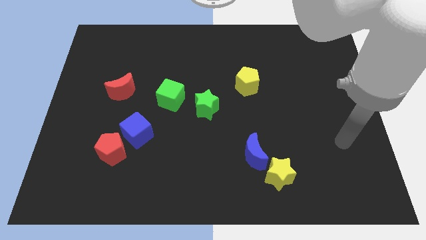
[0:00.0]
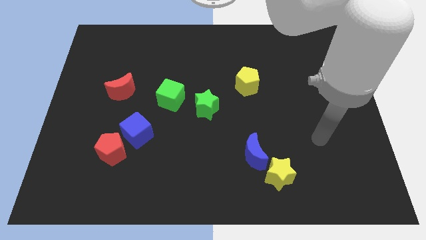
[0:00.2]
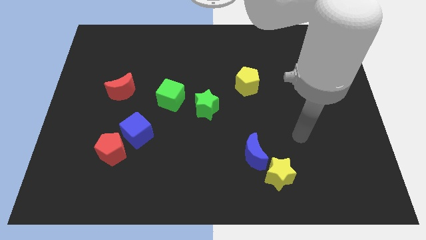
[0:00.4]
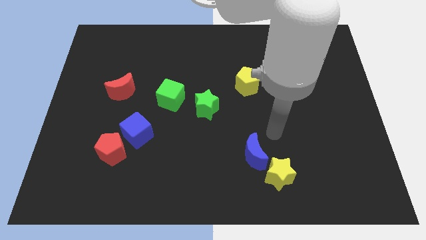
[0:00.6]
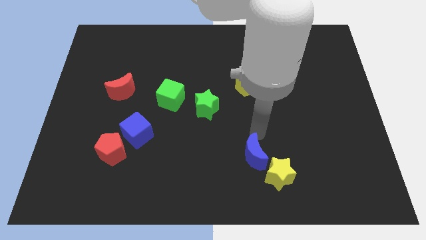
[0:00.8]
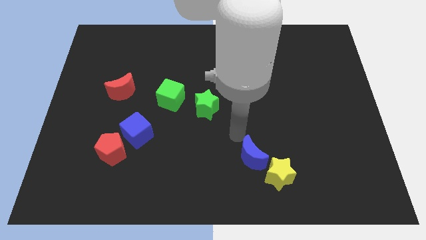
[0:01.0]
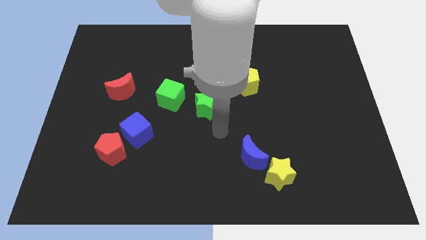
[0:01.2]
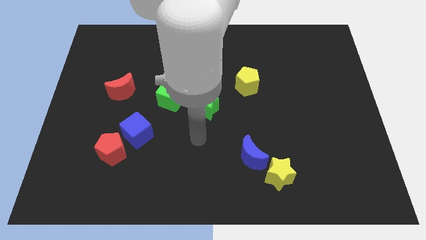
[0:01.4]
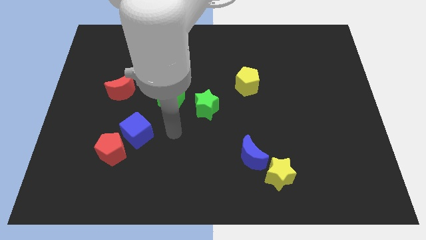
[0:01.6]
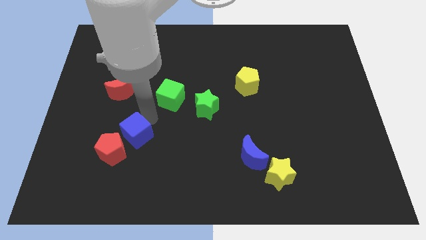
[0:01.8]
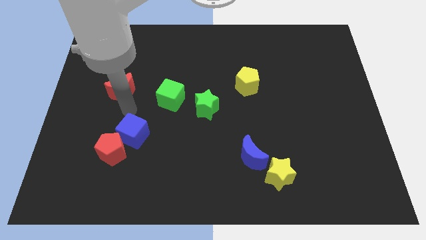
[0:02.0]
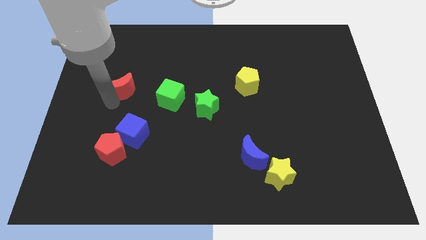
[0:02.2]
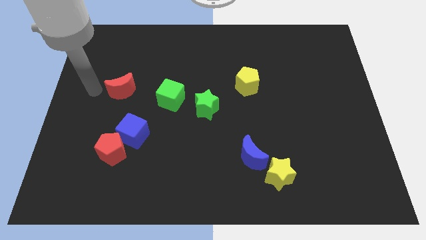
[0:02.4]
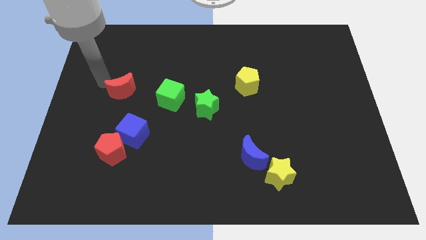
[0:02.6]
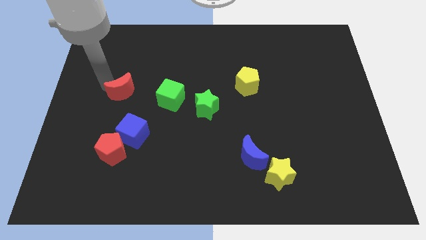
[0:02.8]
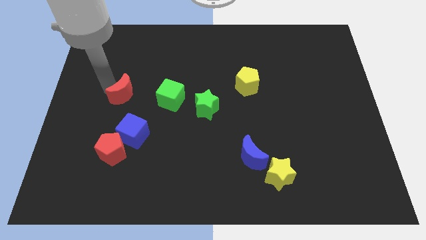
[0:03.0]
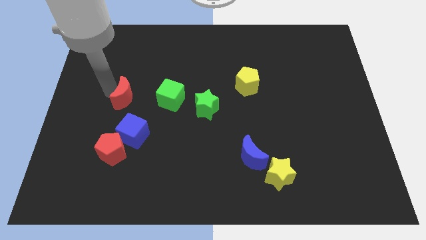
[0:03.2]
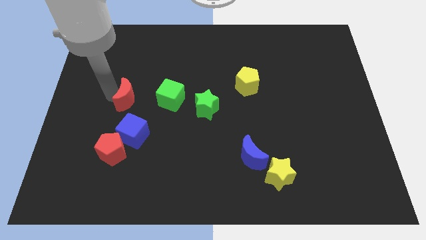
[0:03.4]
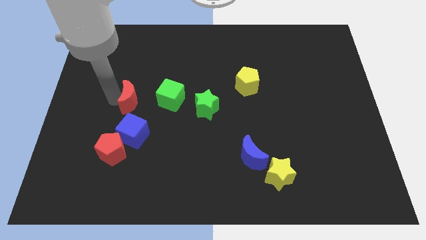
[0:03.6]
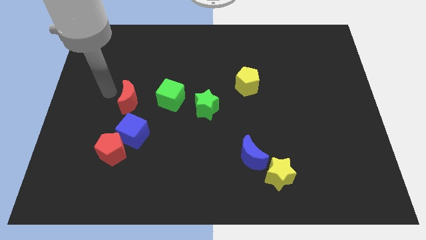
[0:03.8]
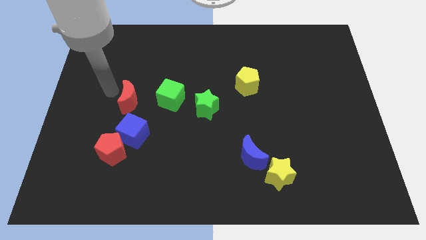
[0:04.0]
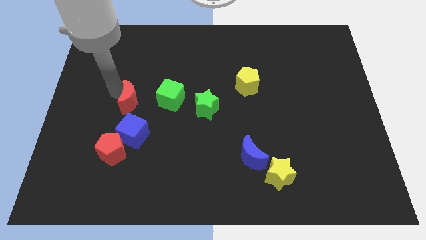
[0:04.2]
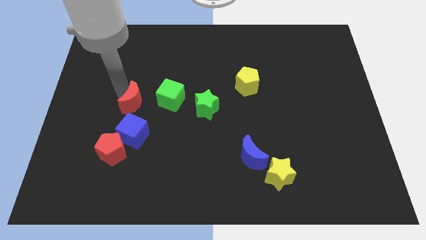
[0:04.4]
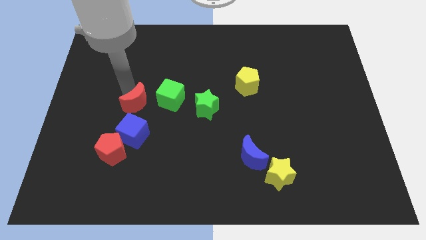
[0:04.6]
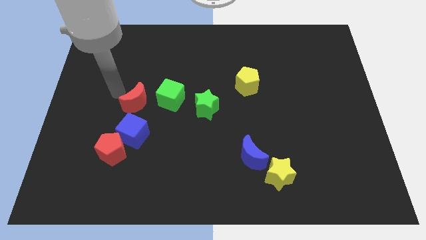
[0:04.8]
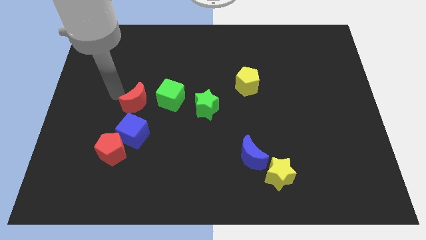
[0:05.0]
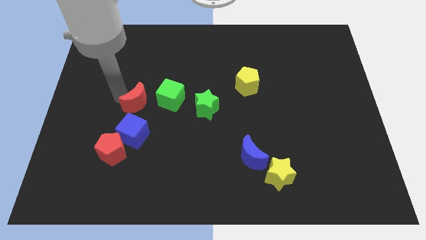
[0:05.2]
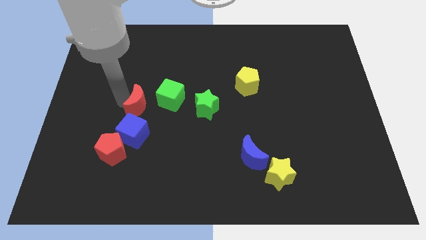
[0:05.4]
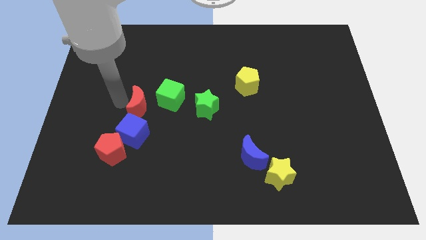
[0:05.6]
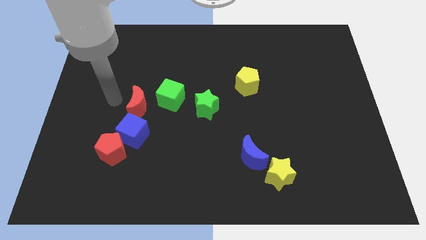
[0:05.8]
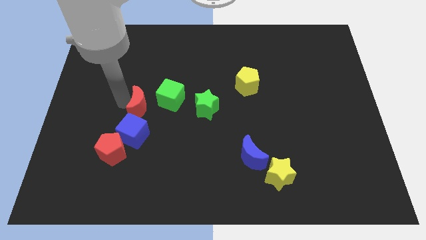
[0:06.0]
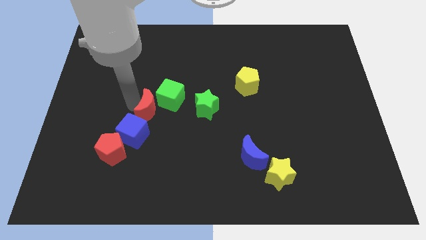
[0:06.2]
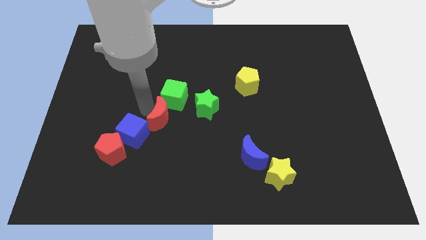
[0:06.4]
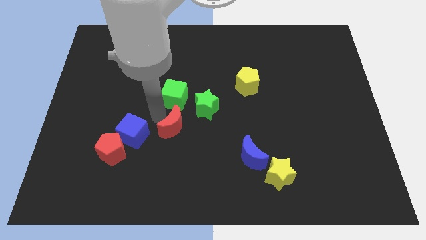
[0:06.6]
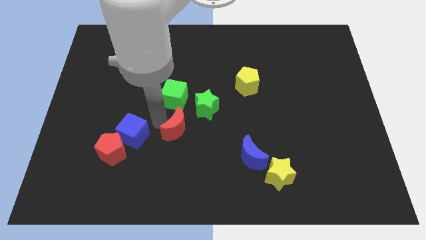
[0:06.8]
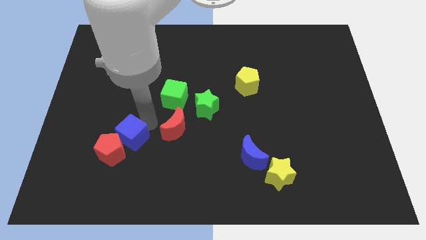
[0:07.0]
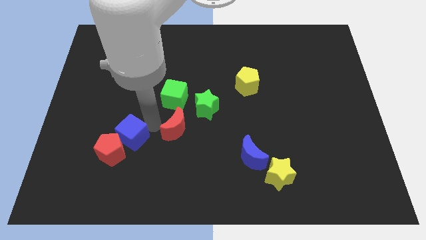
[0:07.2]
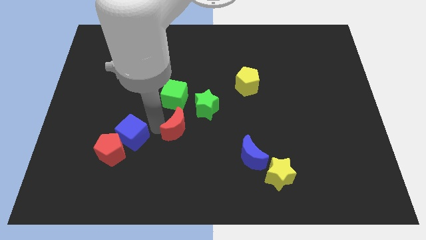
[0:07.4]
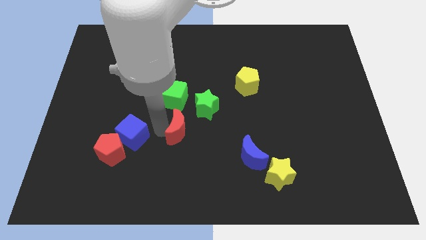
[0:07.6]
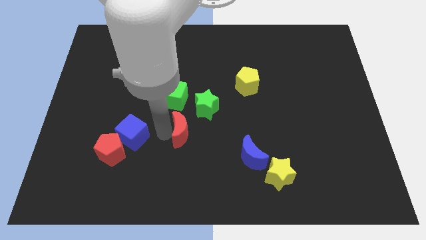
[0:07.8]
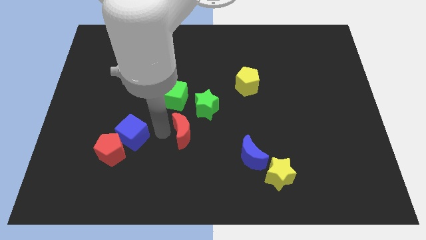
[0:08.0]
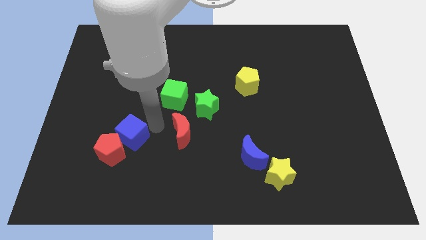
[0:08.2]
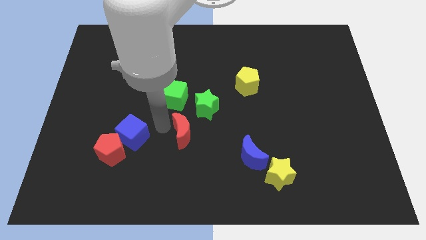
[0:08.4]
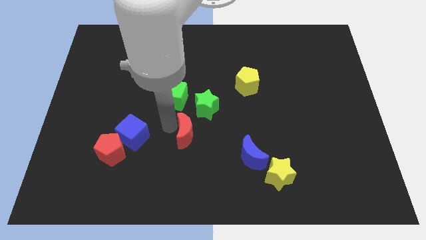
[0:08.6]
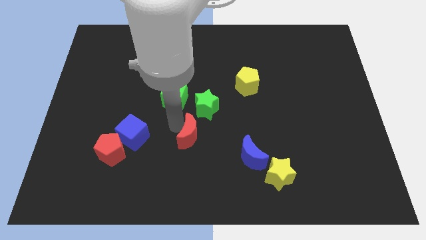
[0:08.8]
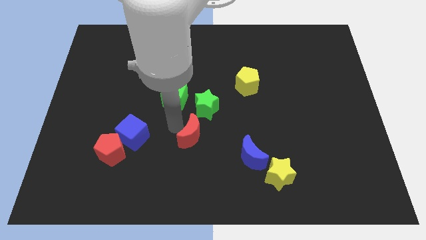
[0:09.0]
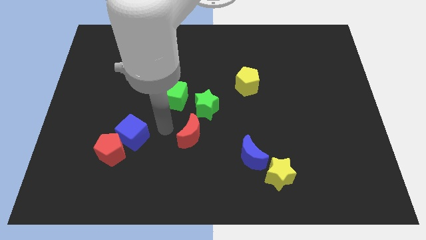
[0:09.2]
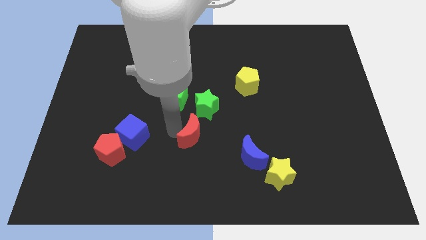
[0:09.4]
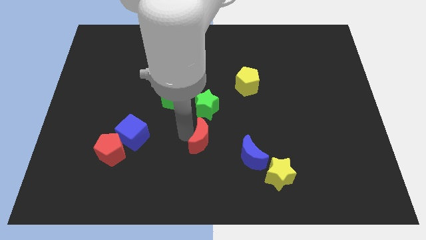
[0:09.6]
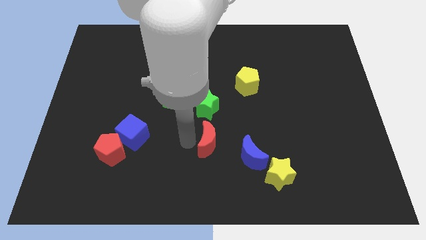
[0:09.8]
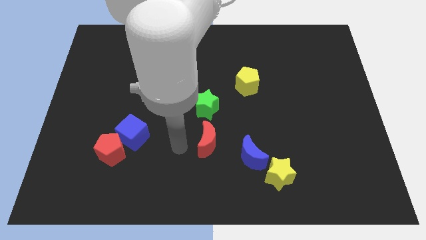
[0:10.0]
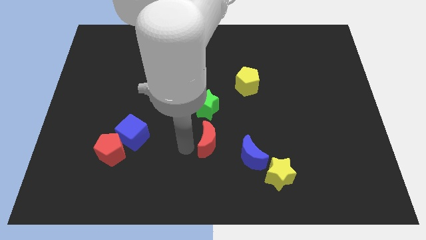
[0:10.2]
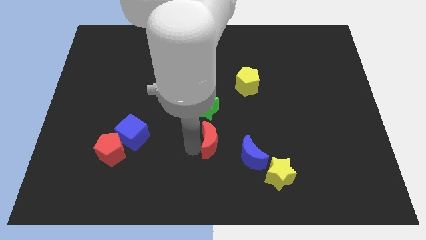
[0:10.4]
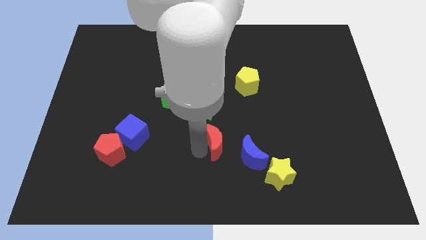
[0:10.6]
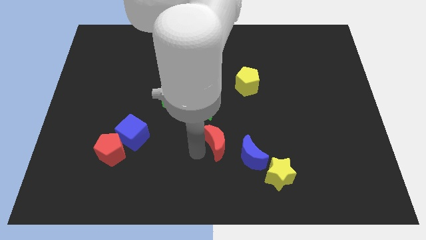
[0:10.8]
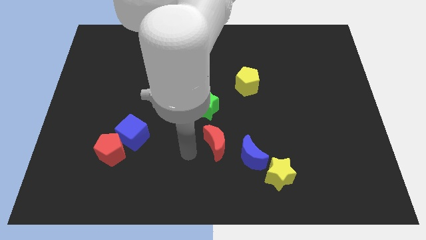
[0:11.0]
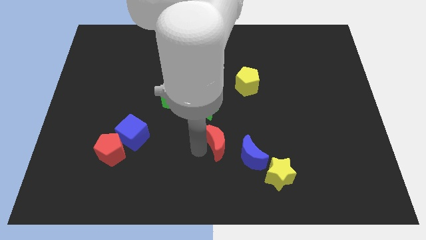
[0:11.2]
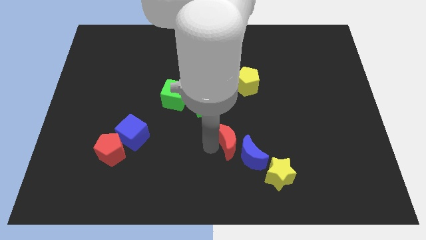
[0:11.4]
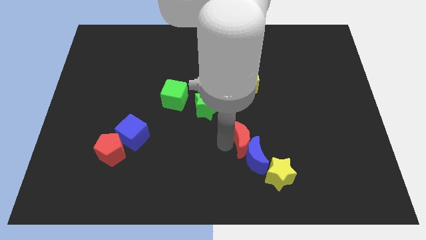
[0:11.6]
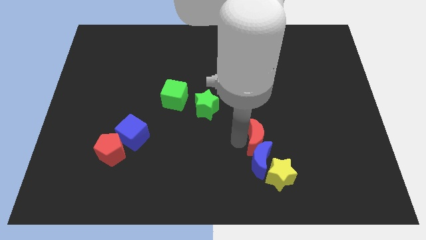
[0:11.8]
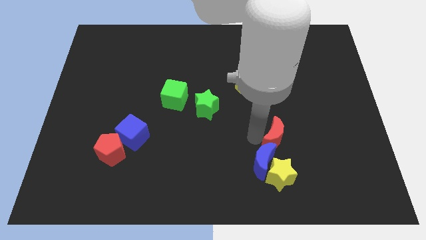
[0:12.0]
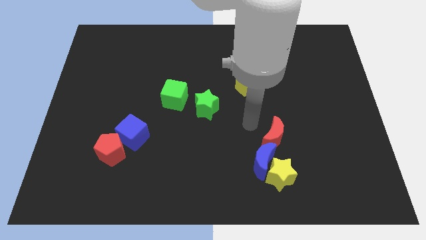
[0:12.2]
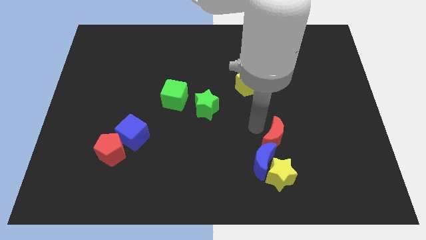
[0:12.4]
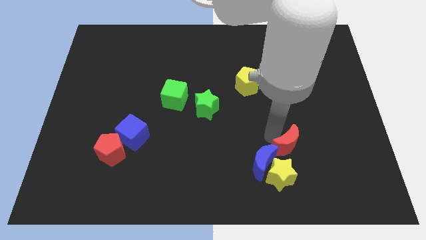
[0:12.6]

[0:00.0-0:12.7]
push the red moon to the right side of the blue moon
